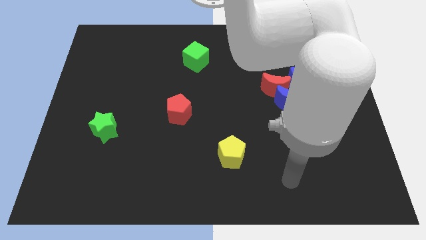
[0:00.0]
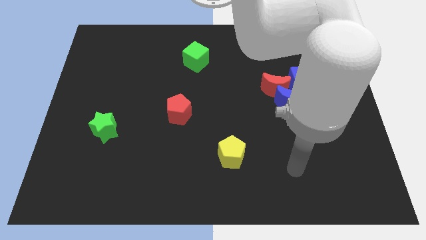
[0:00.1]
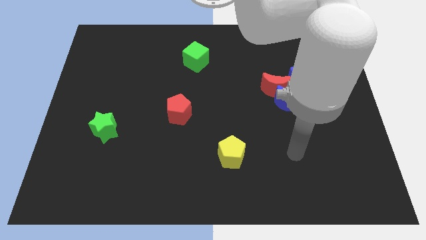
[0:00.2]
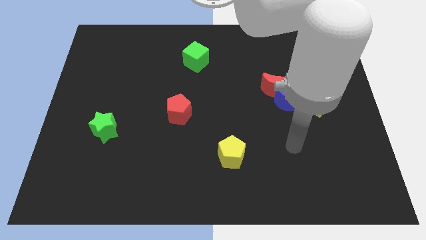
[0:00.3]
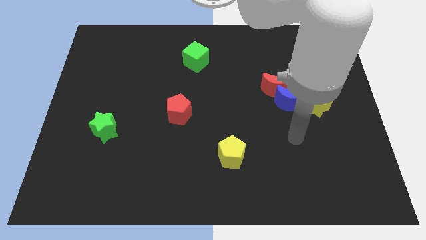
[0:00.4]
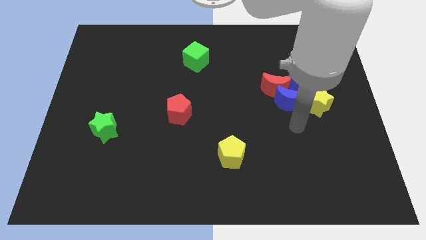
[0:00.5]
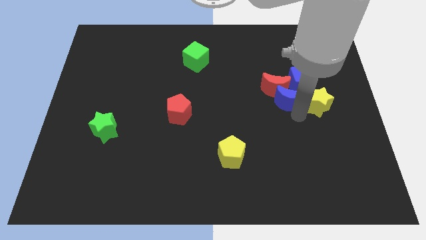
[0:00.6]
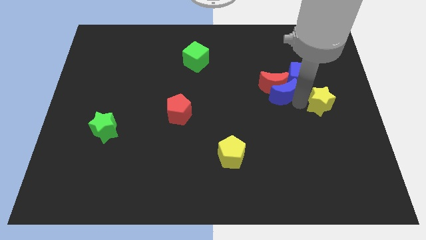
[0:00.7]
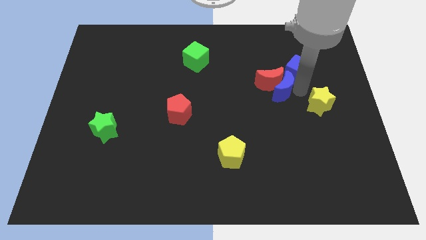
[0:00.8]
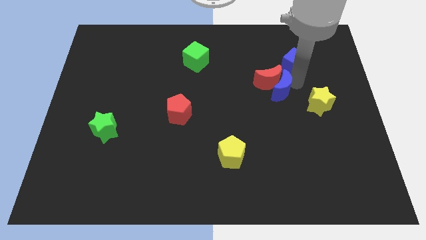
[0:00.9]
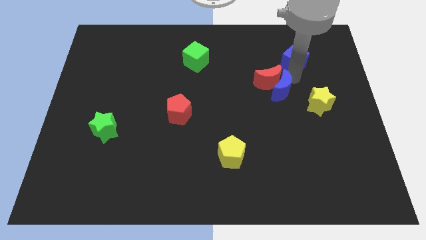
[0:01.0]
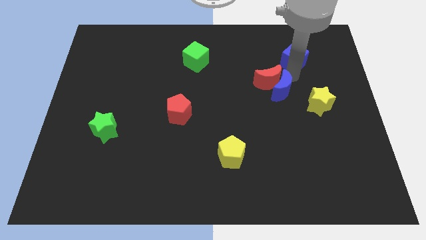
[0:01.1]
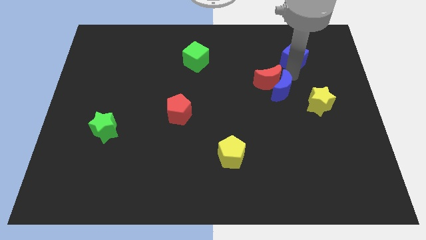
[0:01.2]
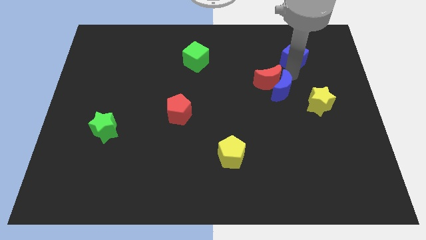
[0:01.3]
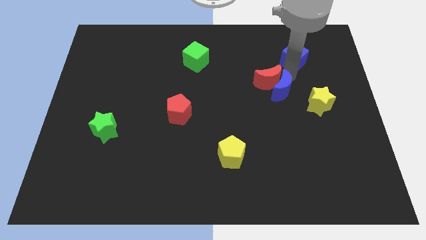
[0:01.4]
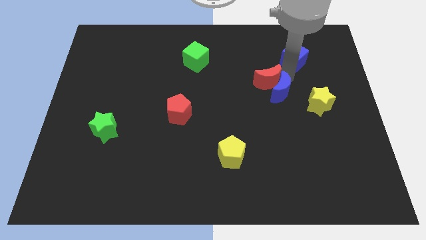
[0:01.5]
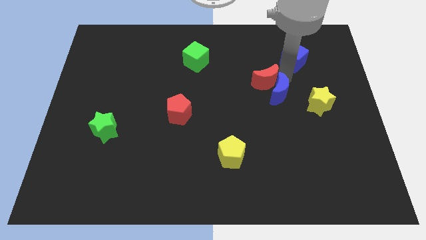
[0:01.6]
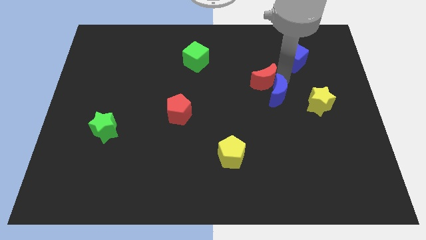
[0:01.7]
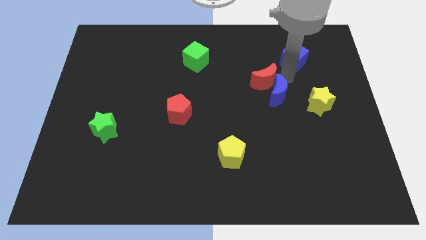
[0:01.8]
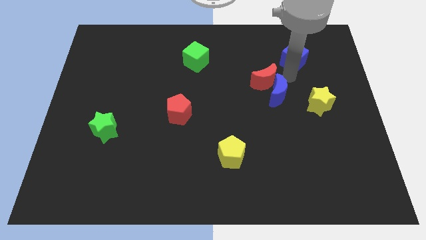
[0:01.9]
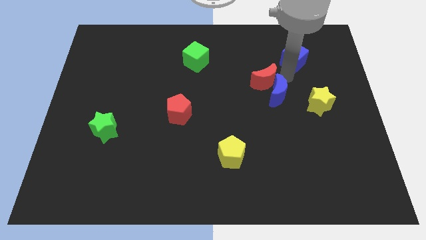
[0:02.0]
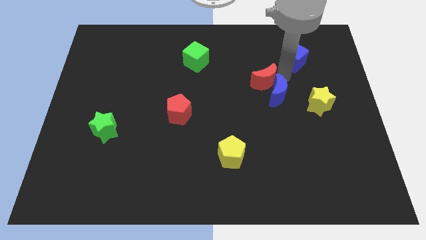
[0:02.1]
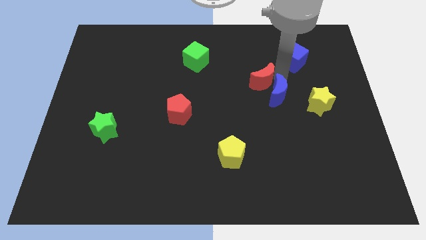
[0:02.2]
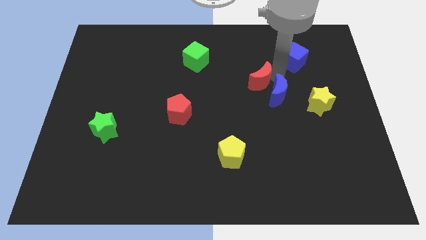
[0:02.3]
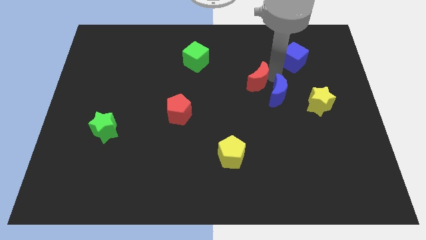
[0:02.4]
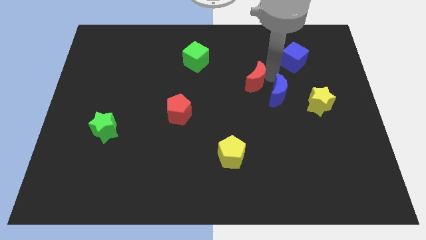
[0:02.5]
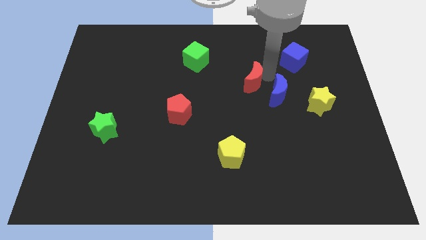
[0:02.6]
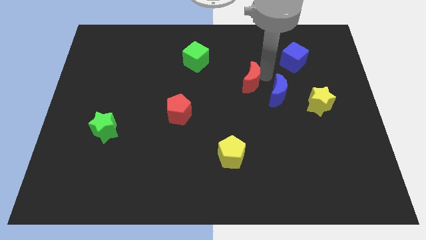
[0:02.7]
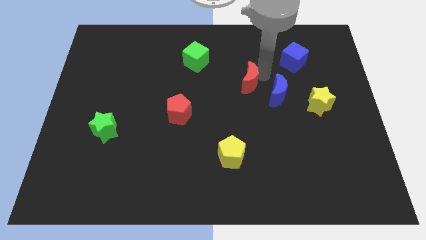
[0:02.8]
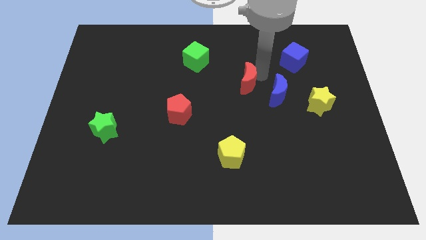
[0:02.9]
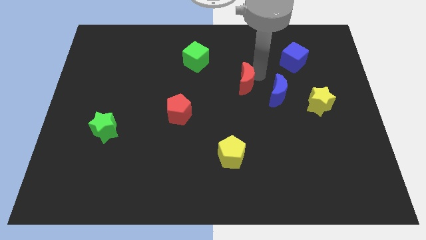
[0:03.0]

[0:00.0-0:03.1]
separate the red moon from the blue moon and blue cube

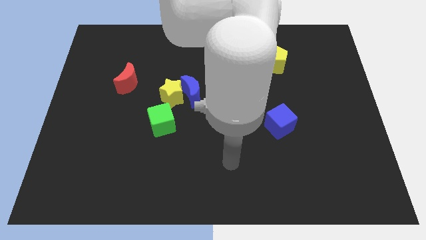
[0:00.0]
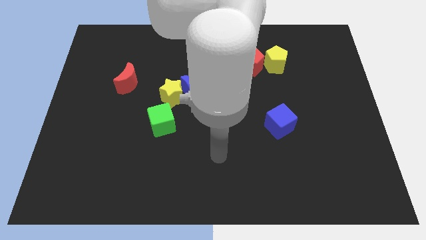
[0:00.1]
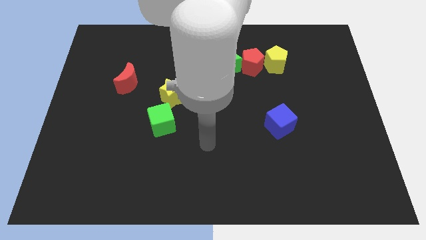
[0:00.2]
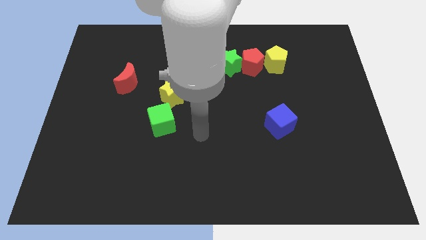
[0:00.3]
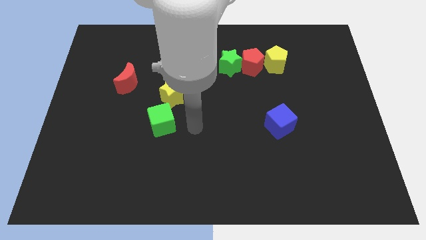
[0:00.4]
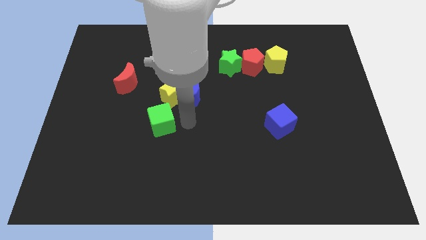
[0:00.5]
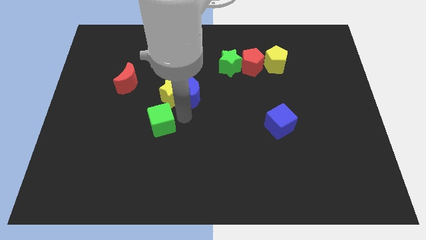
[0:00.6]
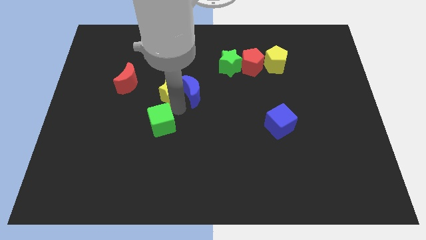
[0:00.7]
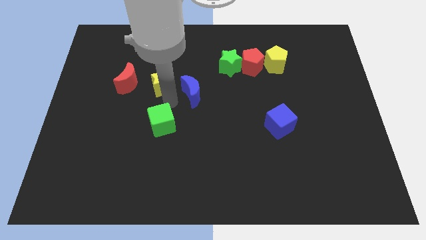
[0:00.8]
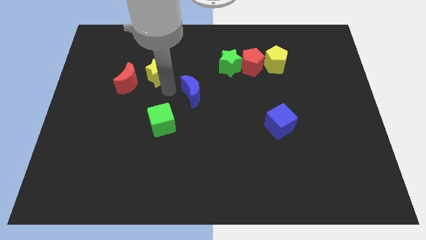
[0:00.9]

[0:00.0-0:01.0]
pull the blue moon apart from the yellow star

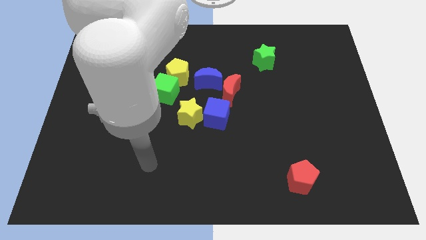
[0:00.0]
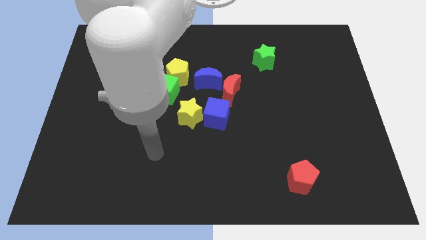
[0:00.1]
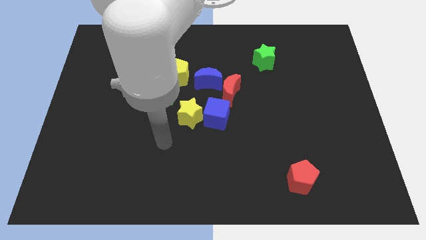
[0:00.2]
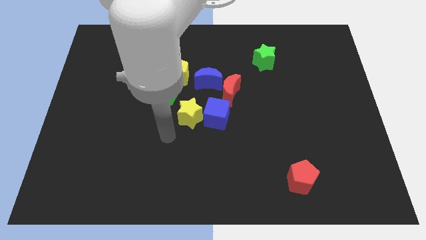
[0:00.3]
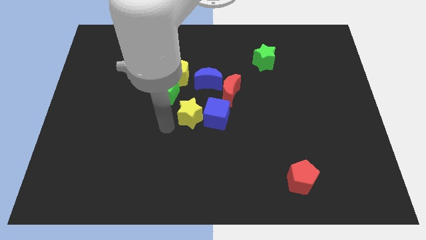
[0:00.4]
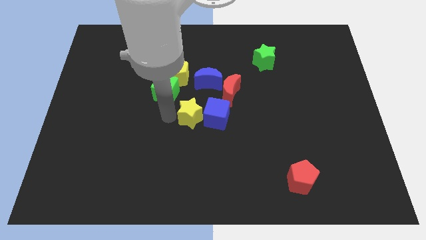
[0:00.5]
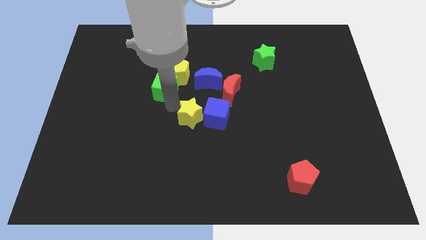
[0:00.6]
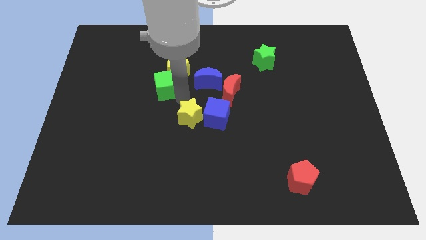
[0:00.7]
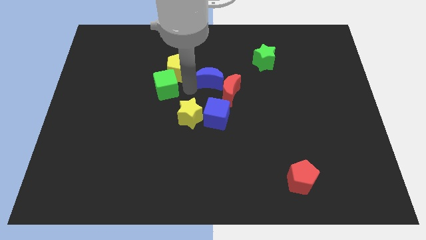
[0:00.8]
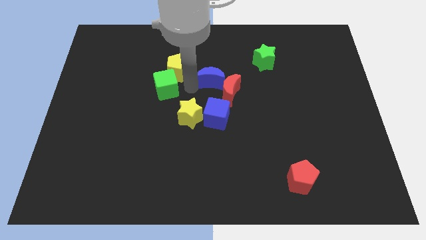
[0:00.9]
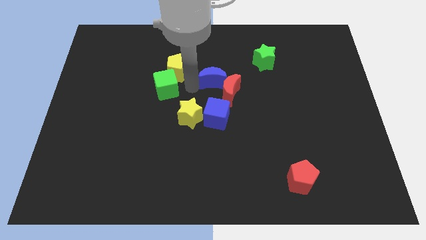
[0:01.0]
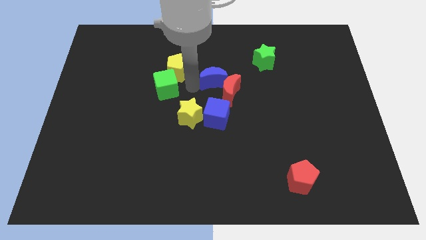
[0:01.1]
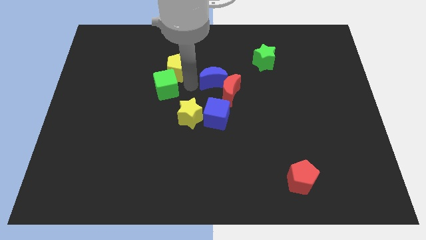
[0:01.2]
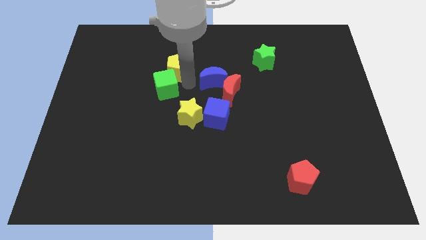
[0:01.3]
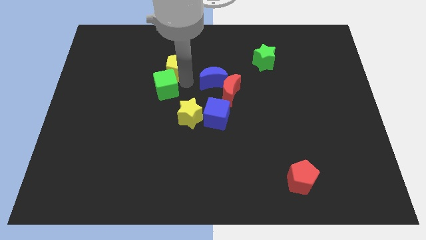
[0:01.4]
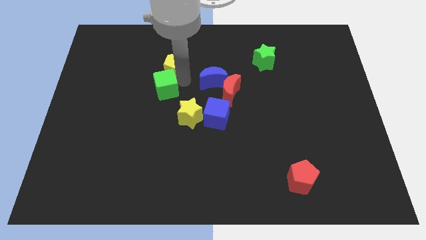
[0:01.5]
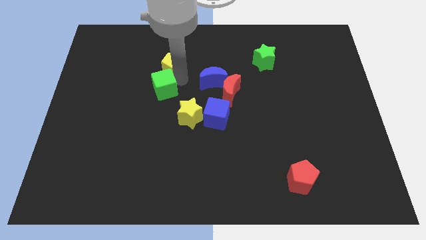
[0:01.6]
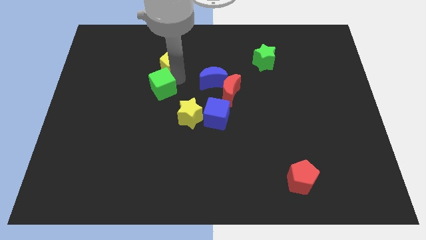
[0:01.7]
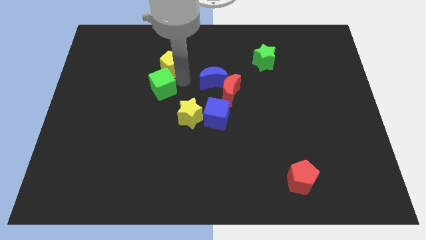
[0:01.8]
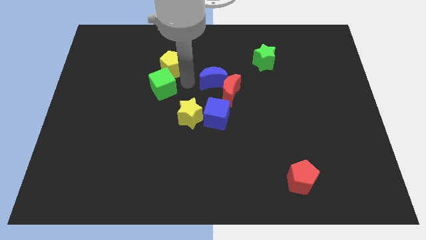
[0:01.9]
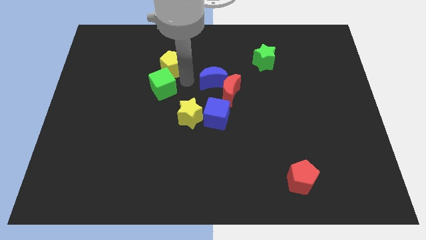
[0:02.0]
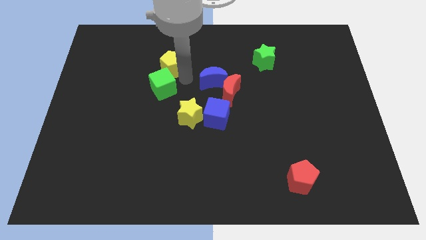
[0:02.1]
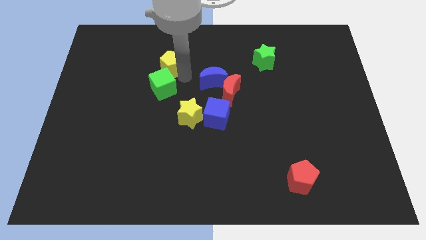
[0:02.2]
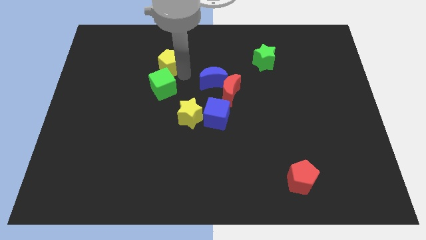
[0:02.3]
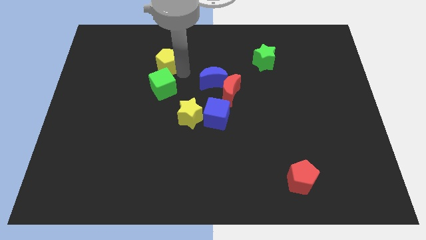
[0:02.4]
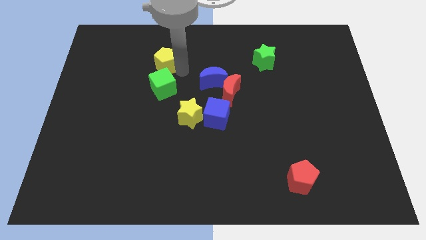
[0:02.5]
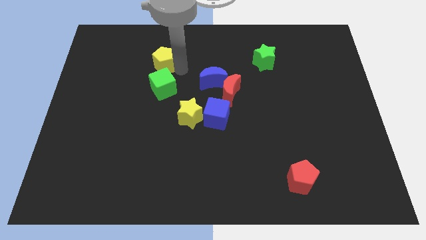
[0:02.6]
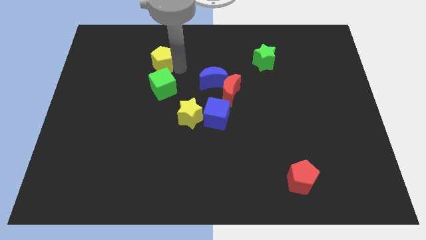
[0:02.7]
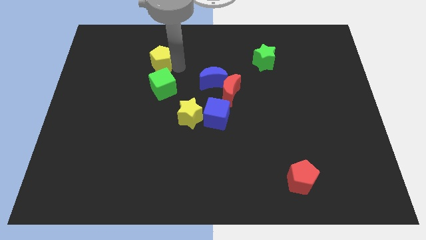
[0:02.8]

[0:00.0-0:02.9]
pull the yellow pentagon apart from the green cube and blue moon

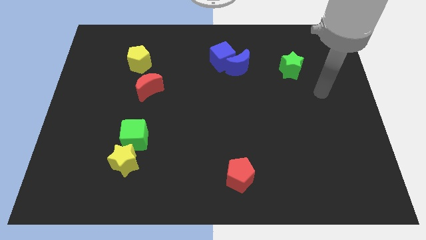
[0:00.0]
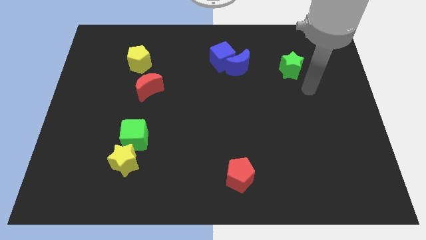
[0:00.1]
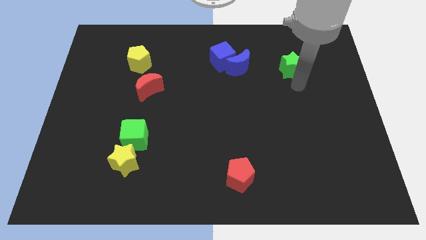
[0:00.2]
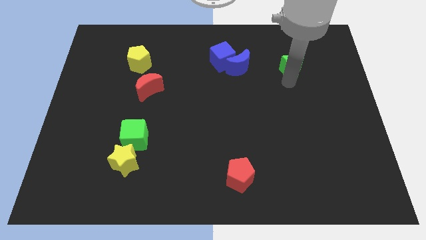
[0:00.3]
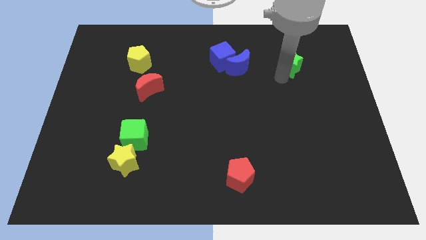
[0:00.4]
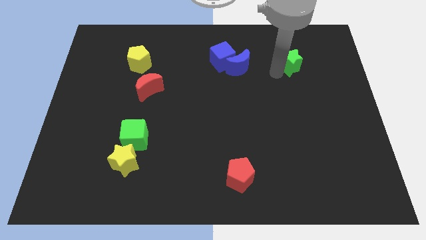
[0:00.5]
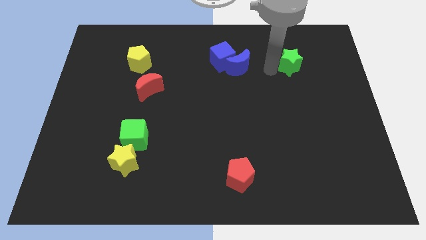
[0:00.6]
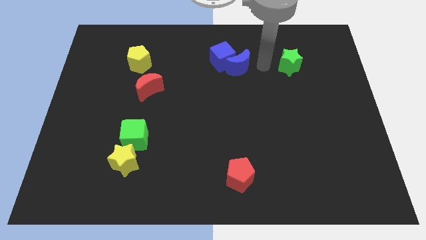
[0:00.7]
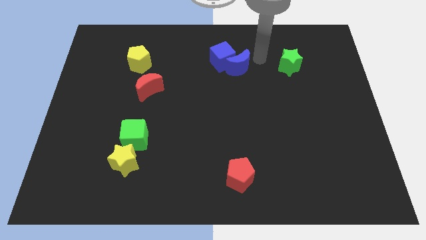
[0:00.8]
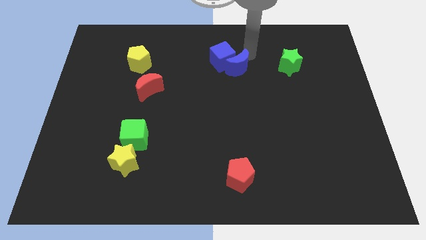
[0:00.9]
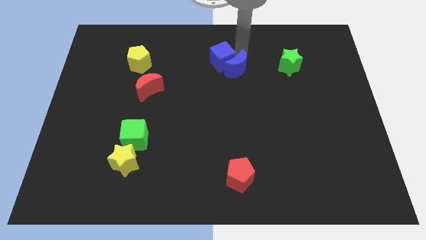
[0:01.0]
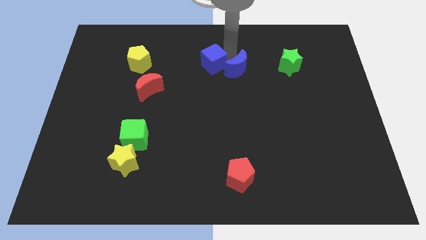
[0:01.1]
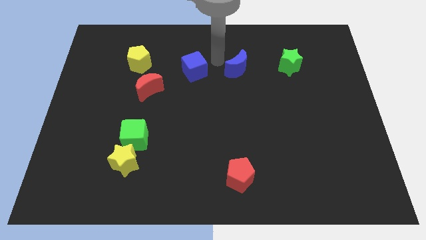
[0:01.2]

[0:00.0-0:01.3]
pull the blue moon apart from the blue cube

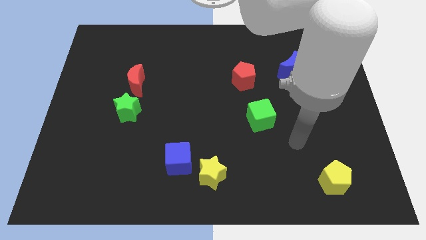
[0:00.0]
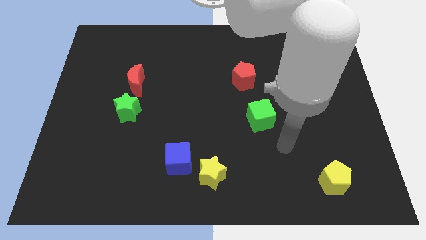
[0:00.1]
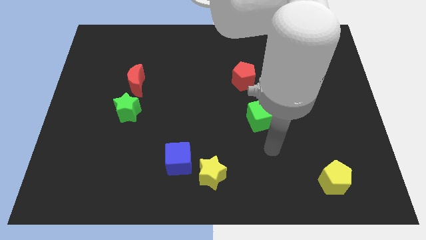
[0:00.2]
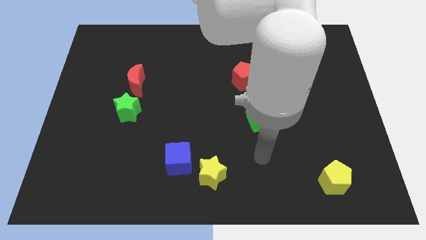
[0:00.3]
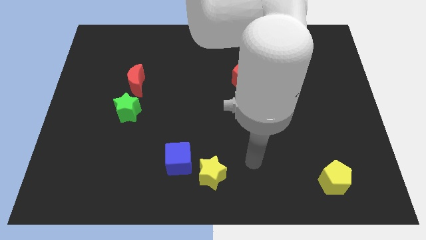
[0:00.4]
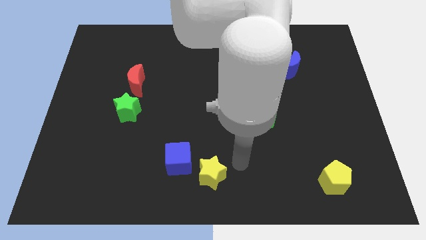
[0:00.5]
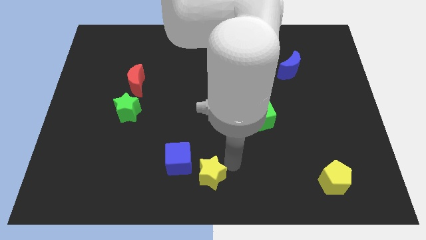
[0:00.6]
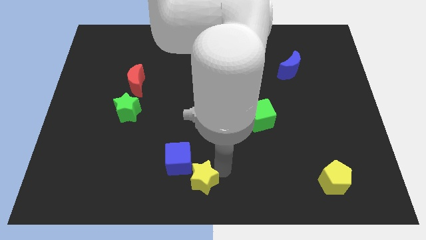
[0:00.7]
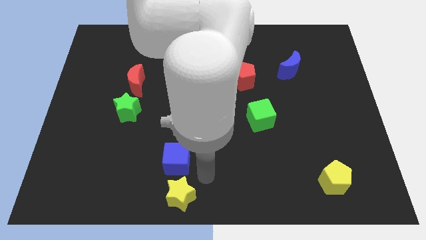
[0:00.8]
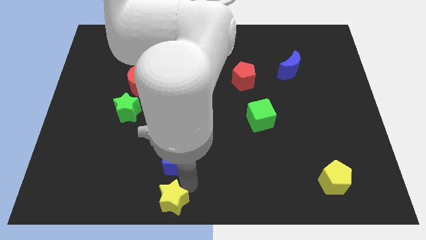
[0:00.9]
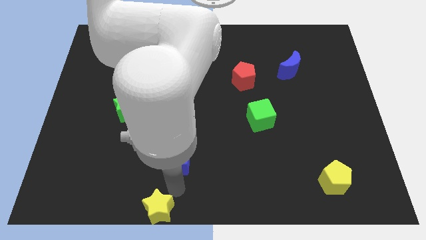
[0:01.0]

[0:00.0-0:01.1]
move the blue cube away from the yellow star
